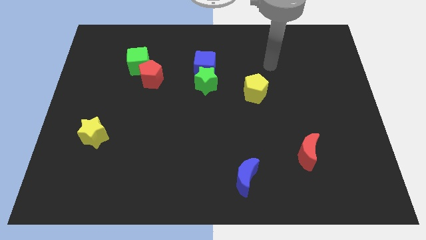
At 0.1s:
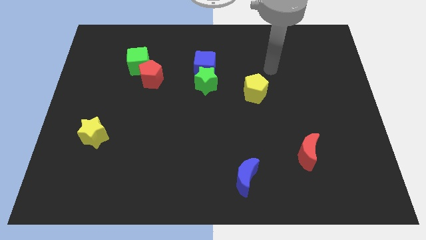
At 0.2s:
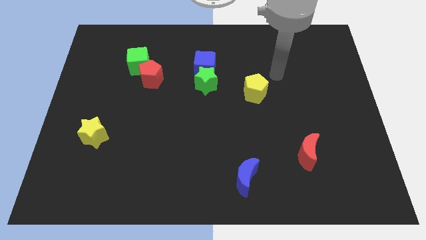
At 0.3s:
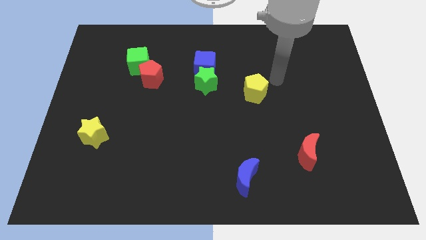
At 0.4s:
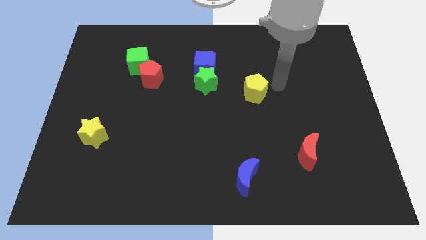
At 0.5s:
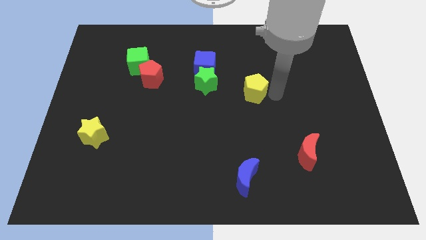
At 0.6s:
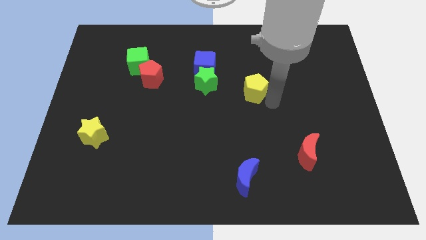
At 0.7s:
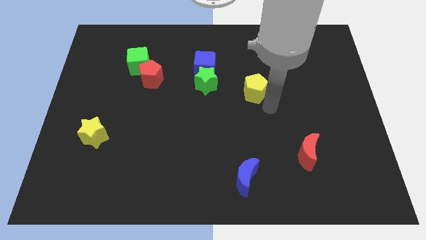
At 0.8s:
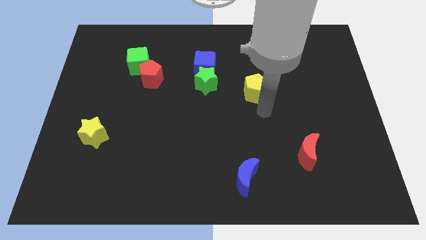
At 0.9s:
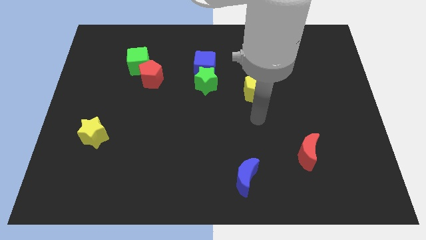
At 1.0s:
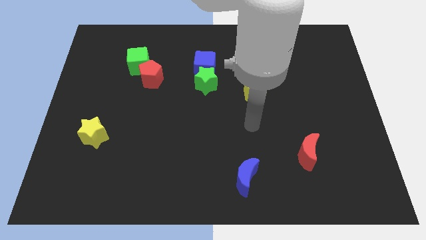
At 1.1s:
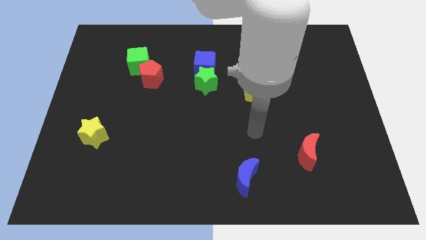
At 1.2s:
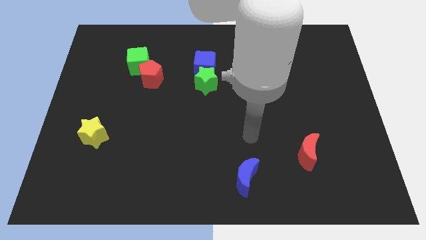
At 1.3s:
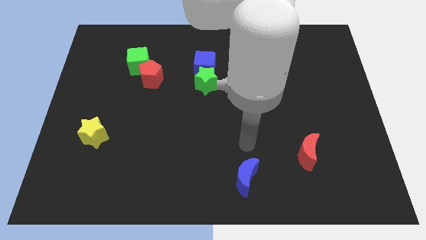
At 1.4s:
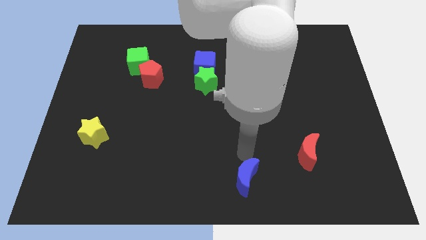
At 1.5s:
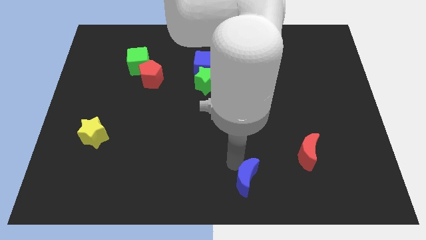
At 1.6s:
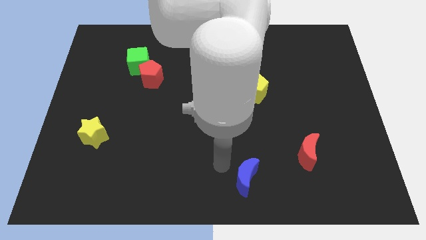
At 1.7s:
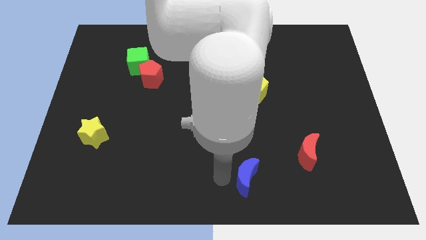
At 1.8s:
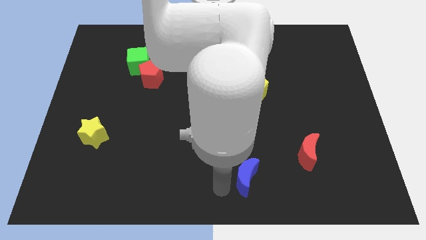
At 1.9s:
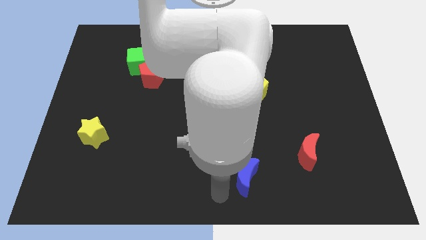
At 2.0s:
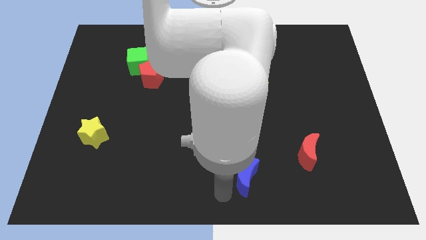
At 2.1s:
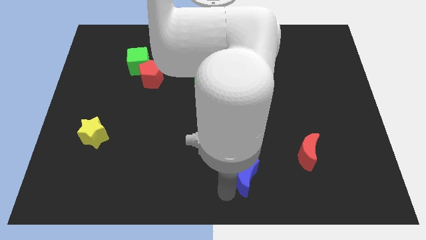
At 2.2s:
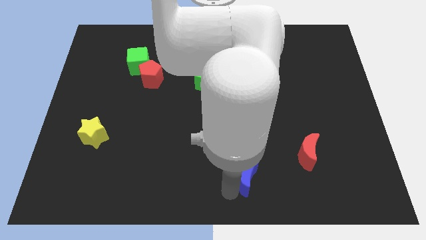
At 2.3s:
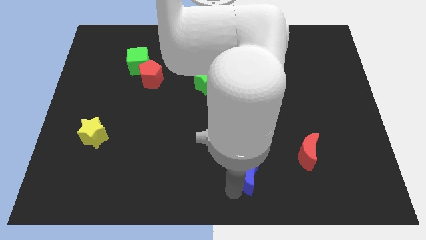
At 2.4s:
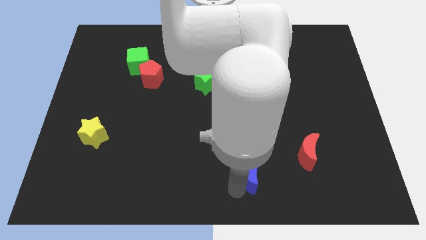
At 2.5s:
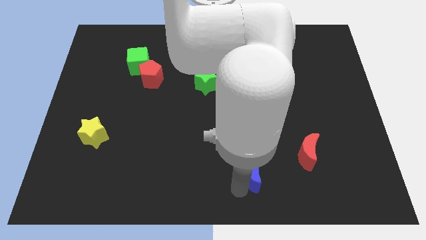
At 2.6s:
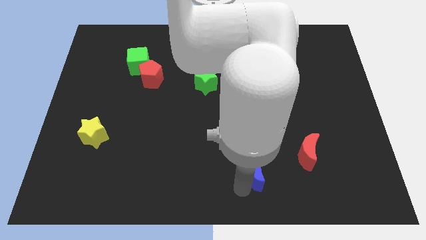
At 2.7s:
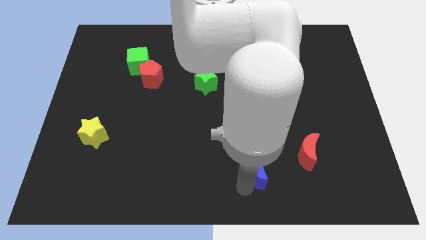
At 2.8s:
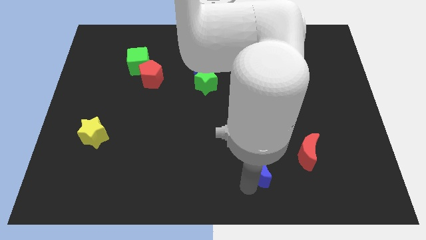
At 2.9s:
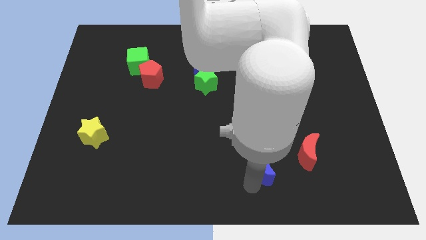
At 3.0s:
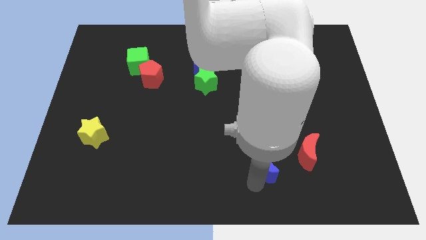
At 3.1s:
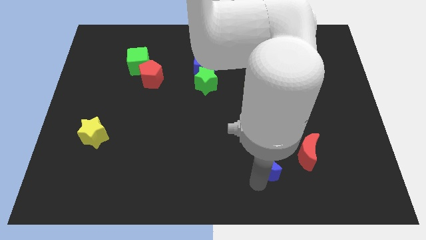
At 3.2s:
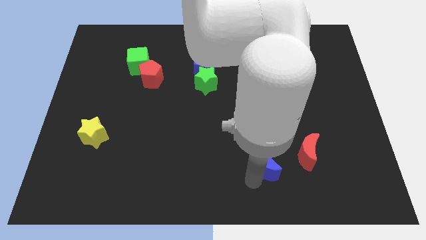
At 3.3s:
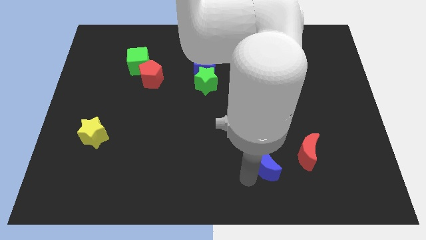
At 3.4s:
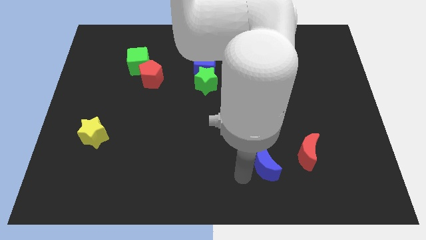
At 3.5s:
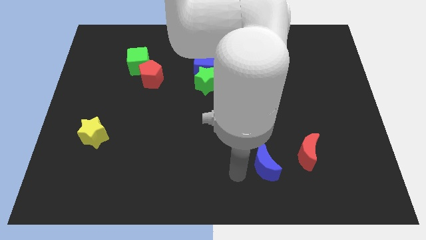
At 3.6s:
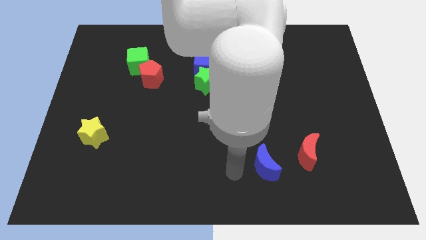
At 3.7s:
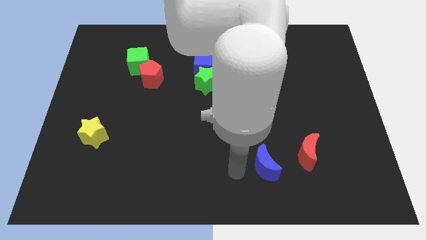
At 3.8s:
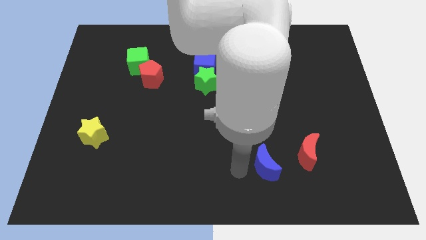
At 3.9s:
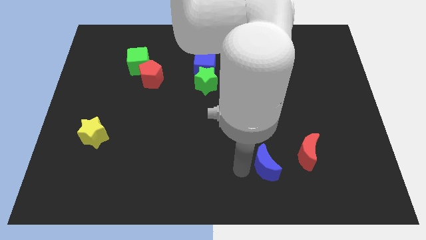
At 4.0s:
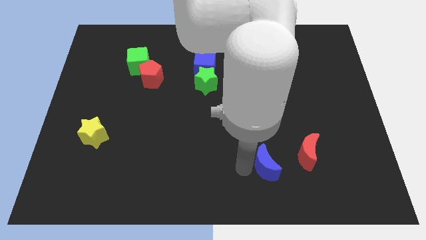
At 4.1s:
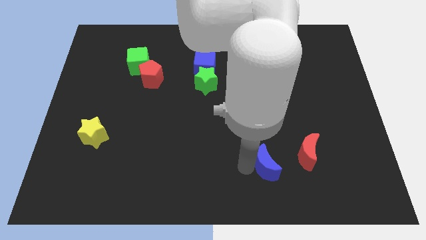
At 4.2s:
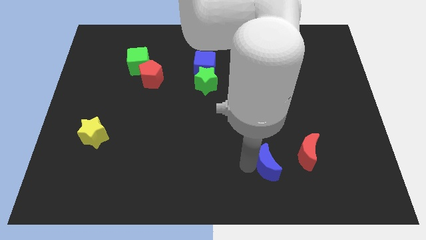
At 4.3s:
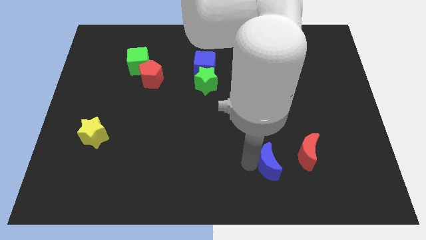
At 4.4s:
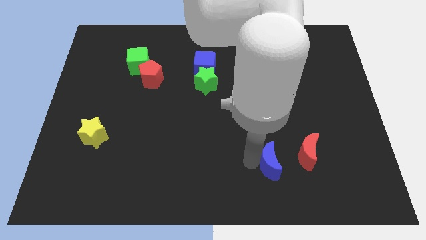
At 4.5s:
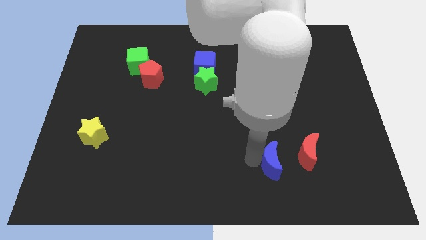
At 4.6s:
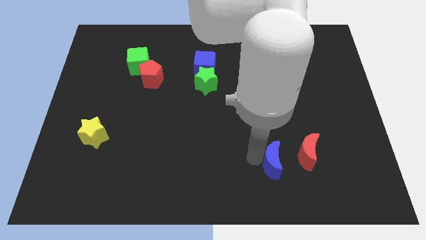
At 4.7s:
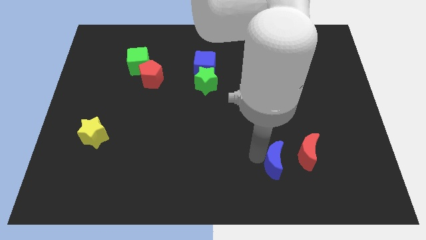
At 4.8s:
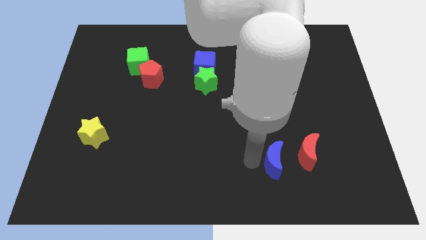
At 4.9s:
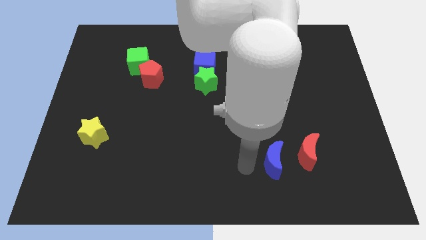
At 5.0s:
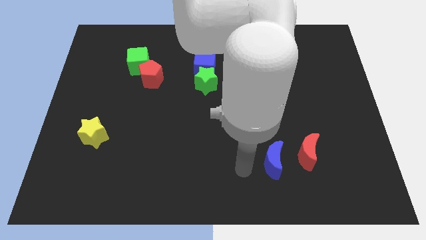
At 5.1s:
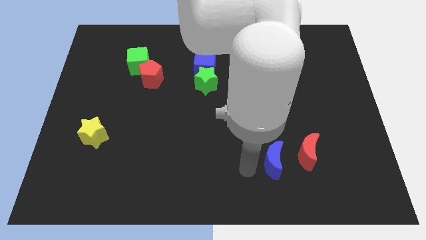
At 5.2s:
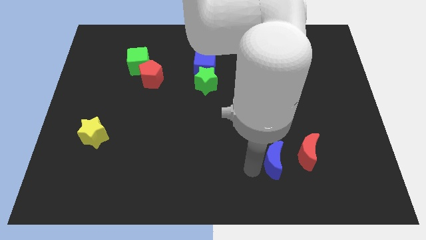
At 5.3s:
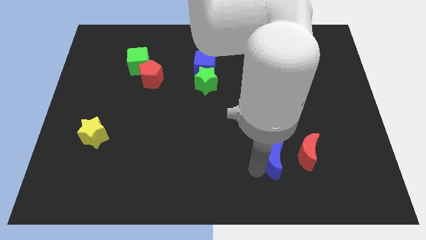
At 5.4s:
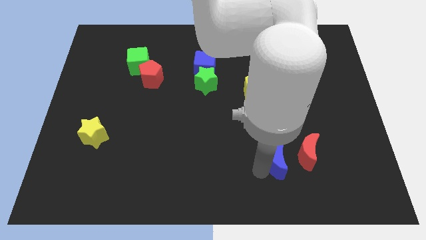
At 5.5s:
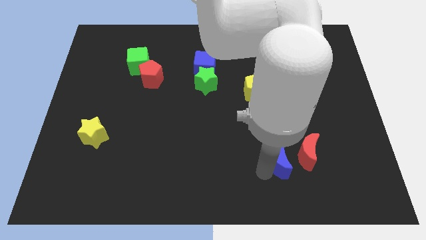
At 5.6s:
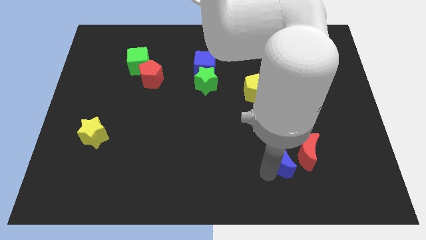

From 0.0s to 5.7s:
push the blue moon close to the red moon

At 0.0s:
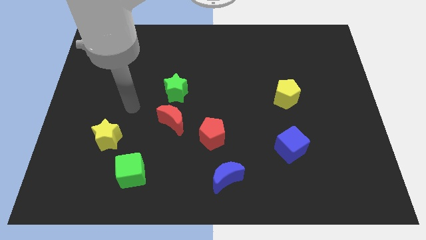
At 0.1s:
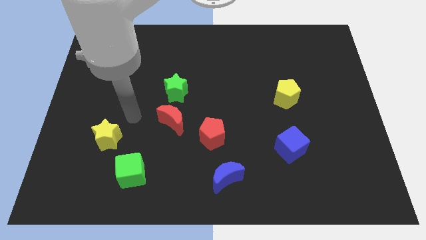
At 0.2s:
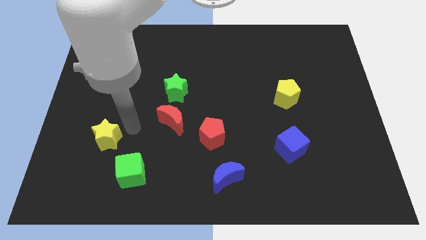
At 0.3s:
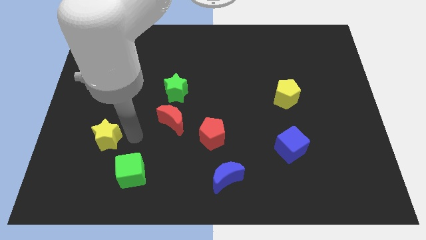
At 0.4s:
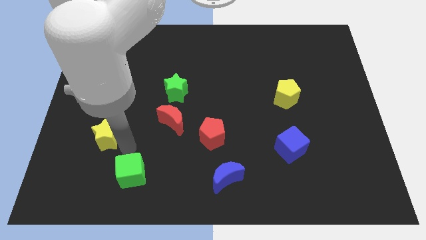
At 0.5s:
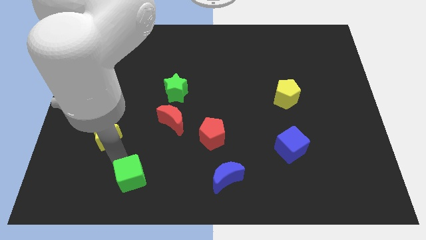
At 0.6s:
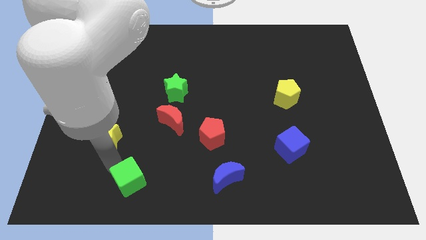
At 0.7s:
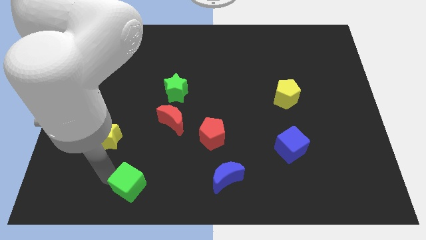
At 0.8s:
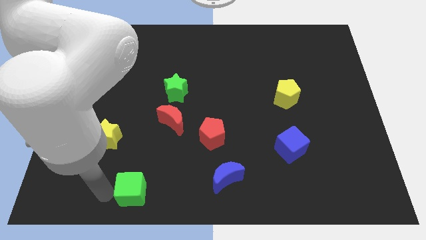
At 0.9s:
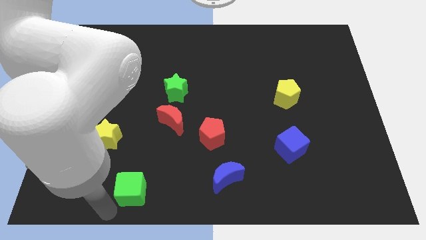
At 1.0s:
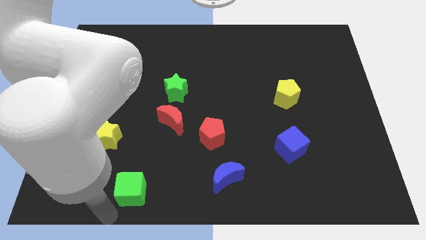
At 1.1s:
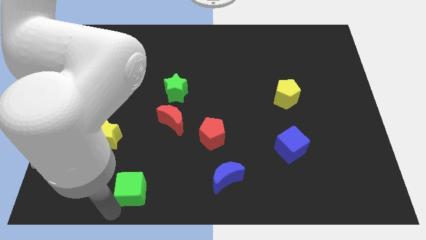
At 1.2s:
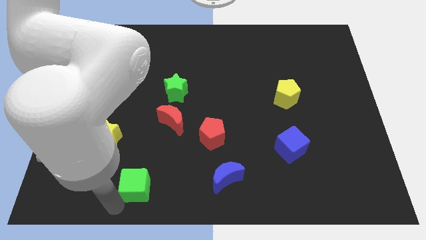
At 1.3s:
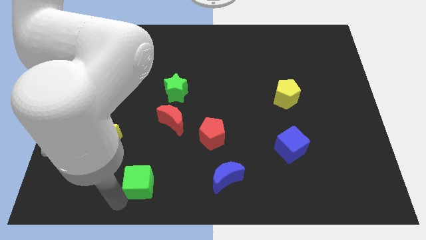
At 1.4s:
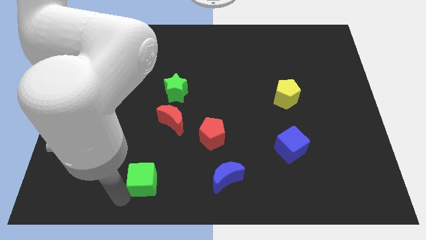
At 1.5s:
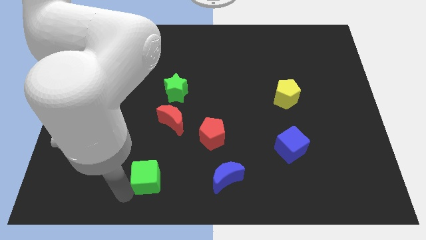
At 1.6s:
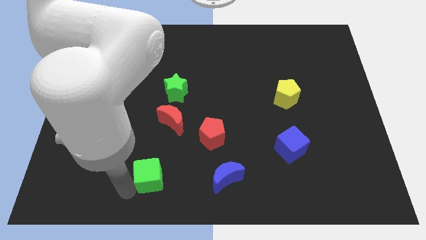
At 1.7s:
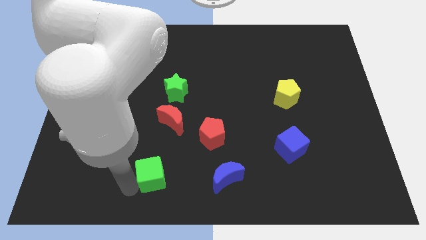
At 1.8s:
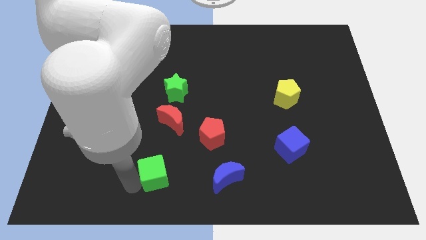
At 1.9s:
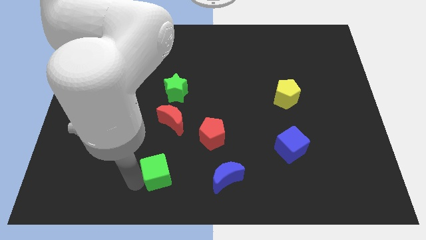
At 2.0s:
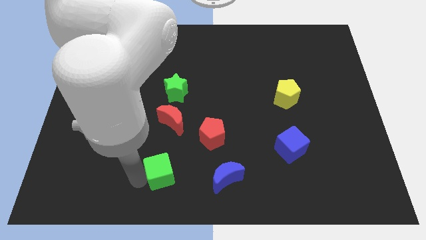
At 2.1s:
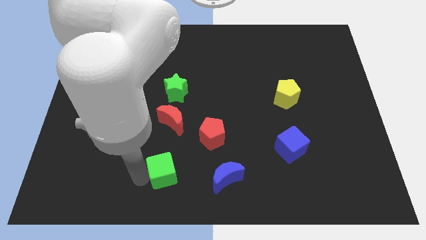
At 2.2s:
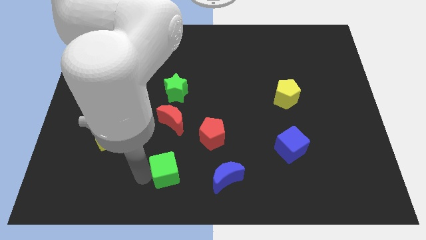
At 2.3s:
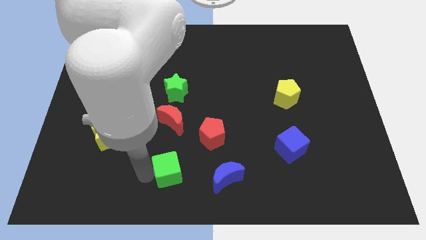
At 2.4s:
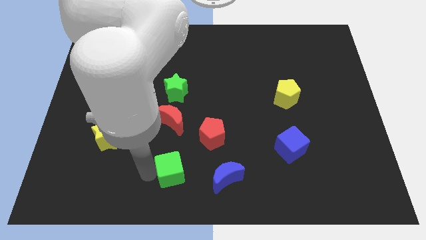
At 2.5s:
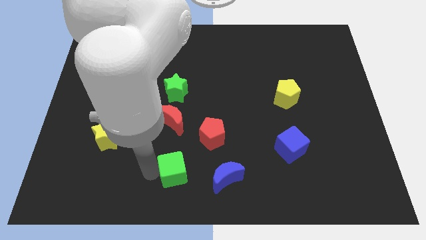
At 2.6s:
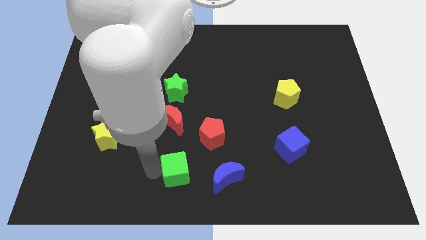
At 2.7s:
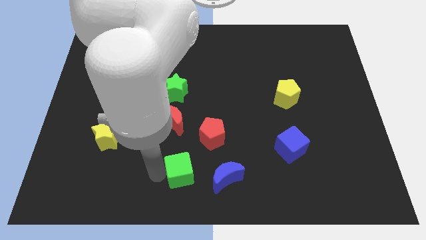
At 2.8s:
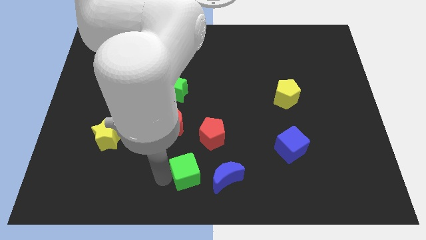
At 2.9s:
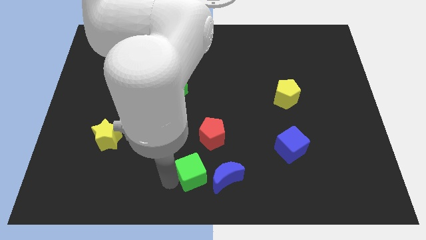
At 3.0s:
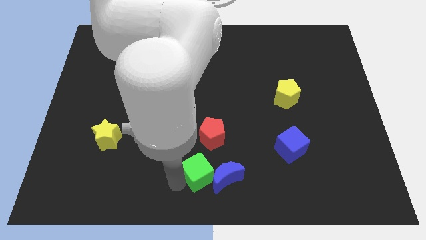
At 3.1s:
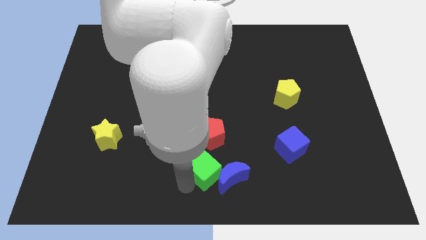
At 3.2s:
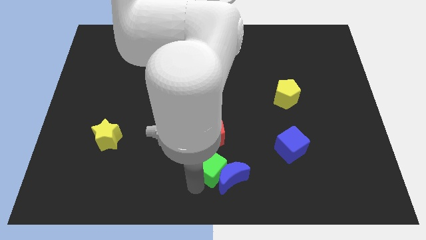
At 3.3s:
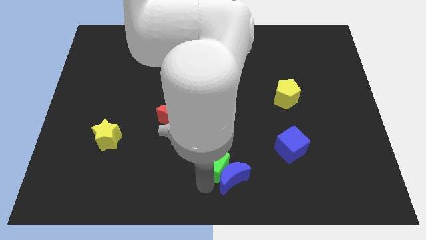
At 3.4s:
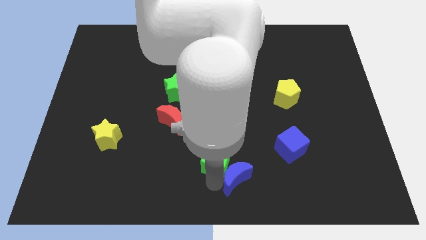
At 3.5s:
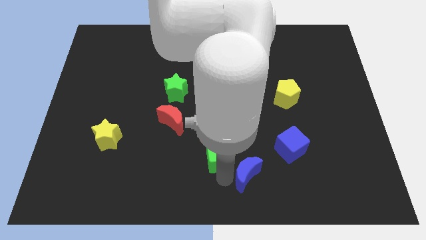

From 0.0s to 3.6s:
slide the green cube next to the red pentagon
